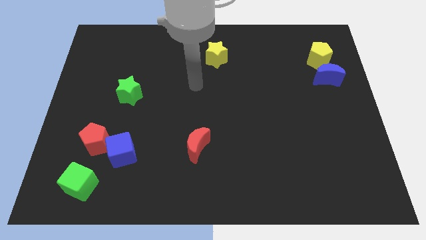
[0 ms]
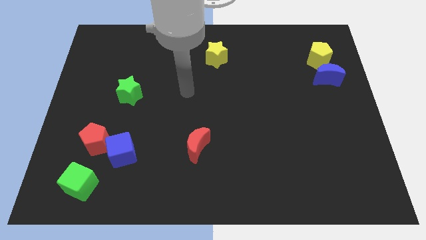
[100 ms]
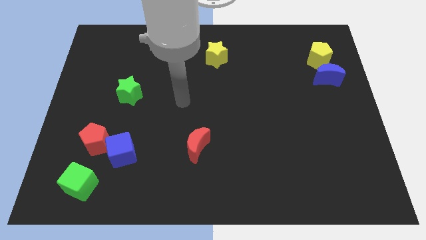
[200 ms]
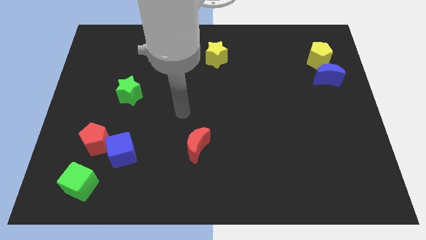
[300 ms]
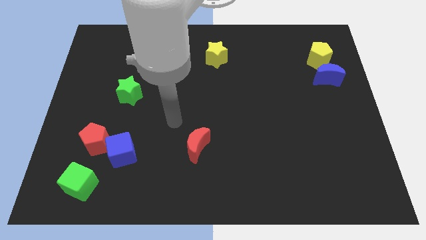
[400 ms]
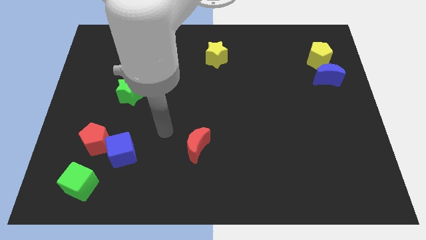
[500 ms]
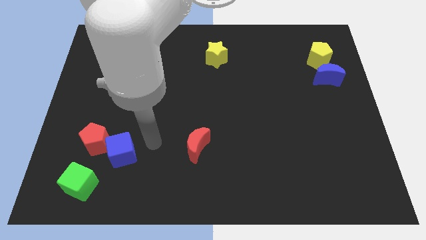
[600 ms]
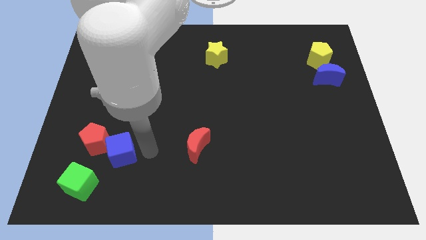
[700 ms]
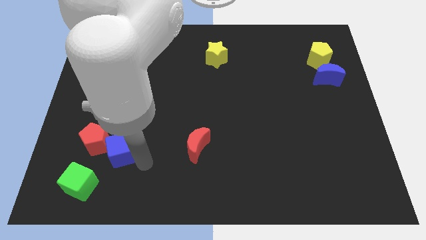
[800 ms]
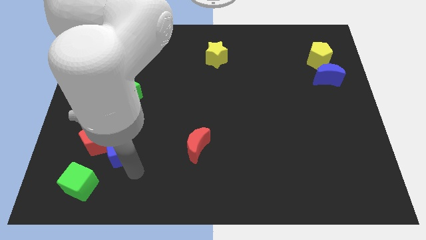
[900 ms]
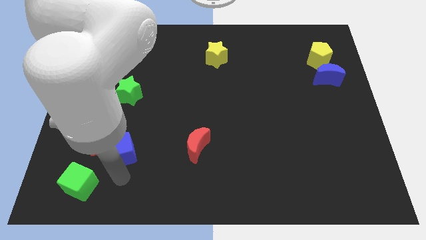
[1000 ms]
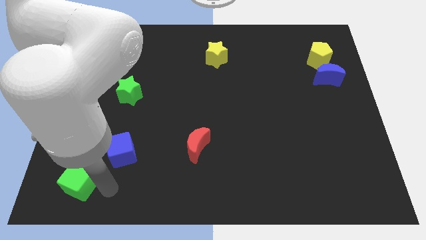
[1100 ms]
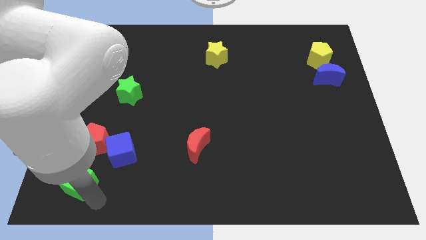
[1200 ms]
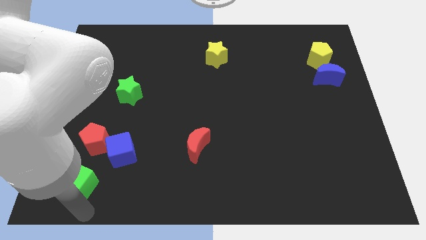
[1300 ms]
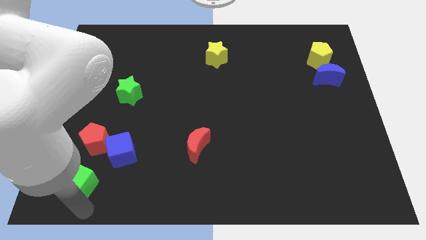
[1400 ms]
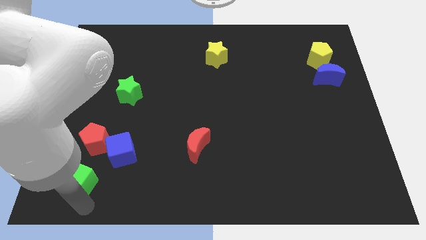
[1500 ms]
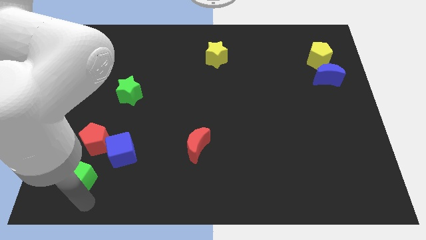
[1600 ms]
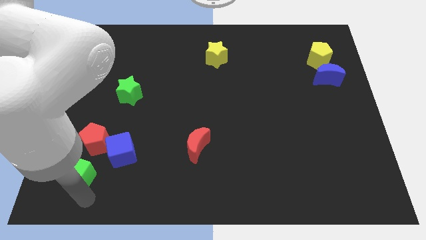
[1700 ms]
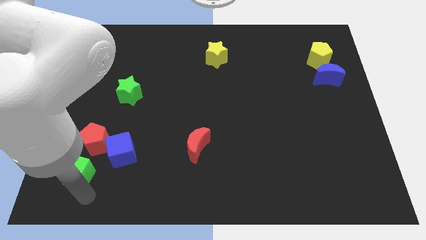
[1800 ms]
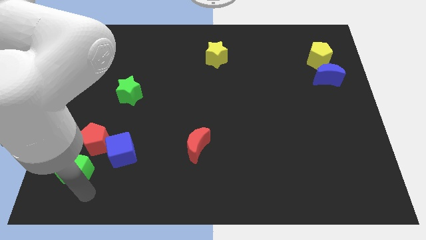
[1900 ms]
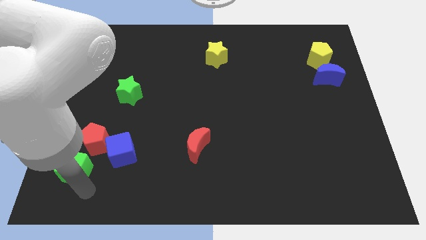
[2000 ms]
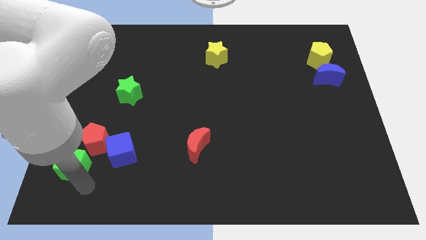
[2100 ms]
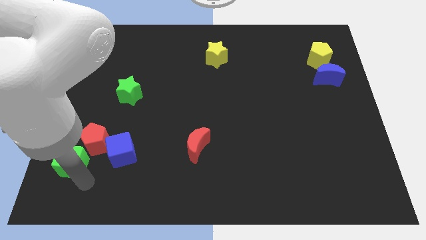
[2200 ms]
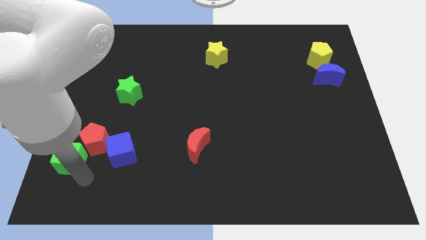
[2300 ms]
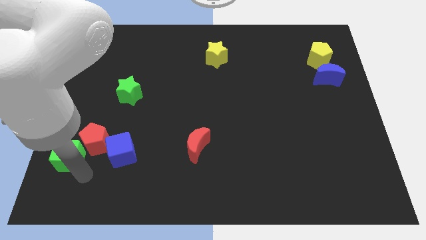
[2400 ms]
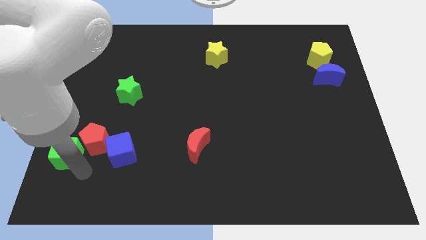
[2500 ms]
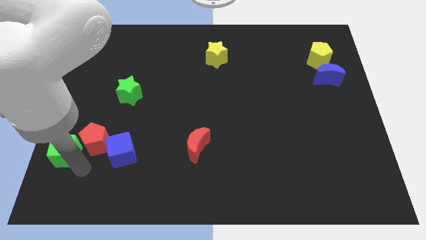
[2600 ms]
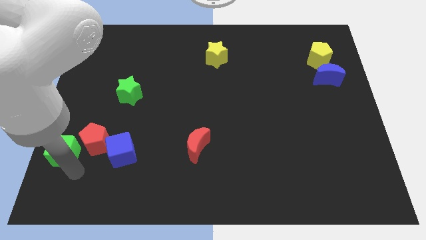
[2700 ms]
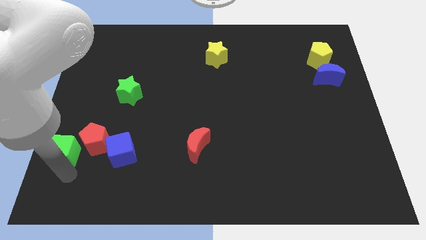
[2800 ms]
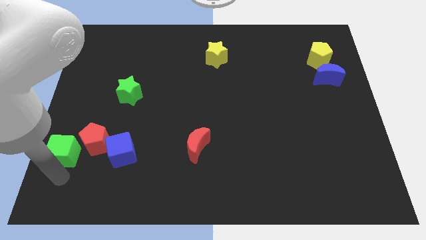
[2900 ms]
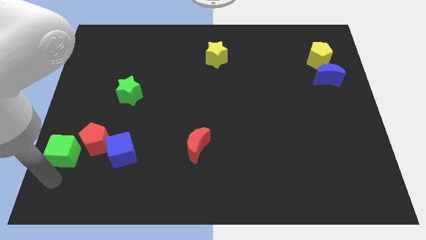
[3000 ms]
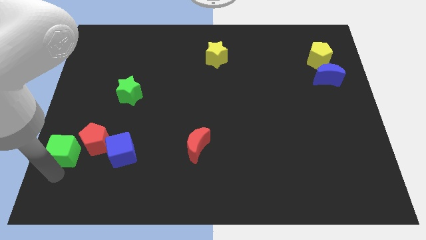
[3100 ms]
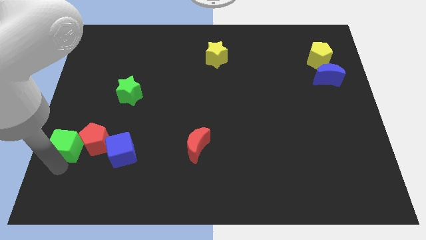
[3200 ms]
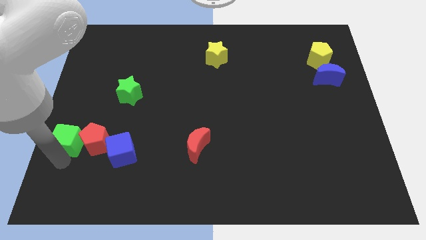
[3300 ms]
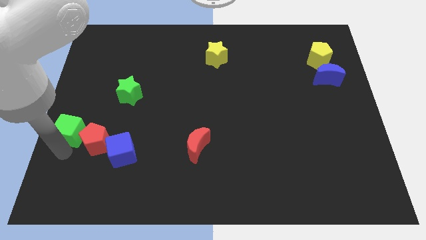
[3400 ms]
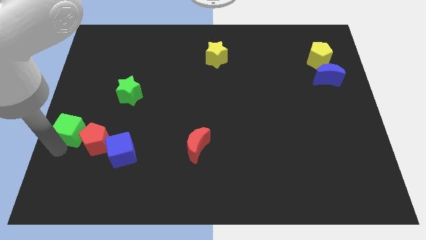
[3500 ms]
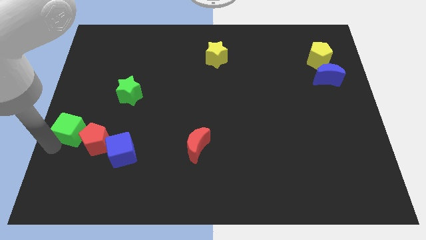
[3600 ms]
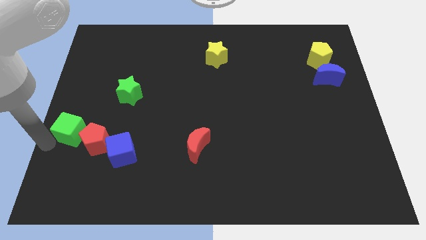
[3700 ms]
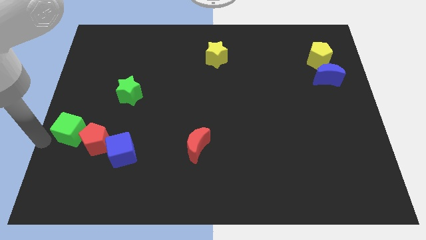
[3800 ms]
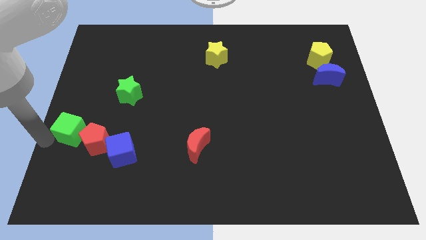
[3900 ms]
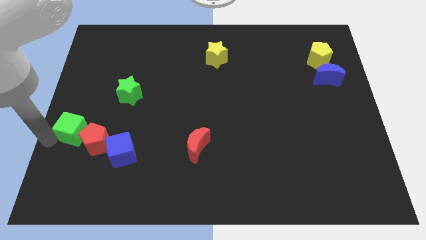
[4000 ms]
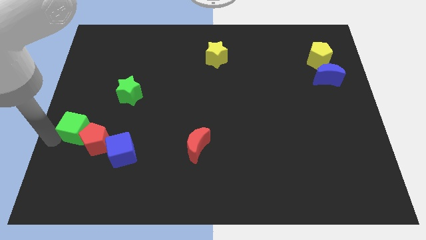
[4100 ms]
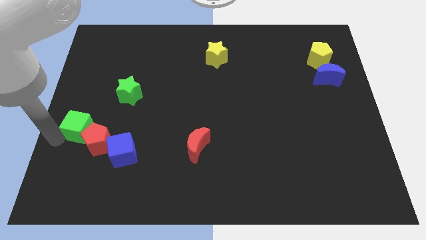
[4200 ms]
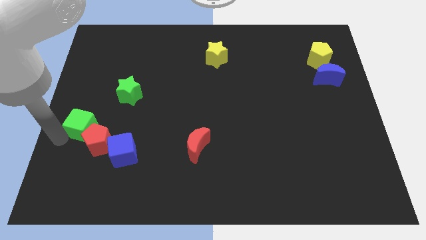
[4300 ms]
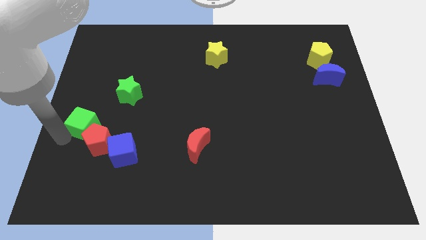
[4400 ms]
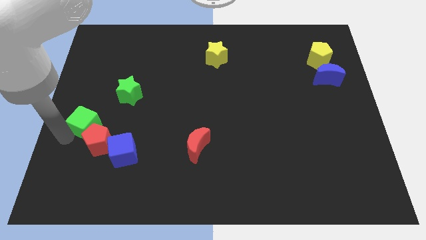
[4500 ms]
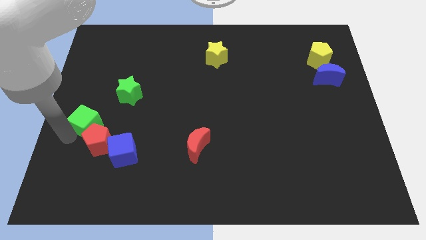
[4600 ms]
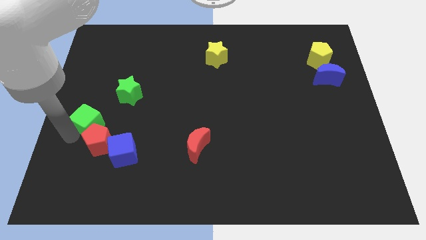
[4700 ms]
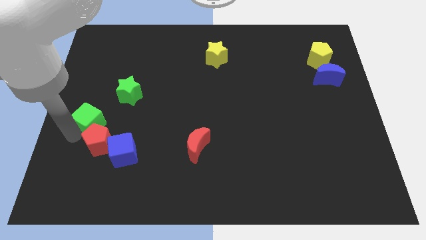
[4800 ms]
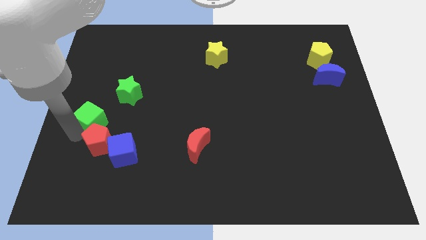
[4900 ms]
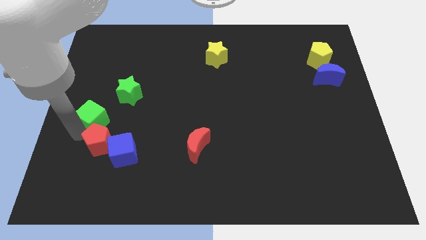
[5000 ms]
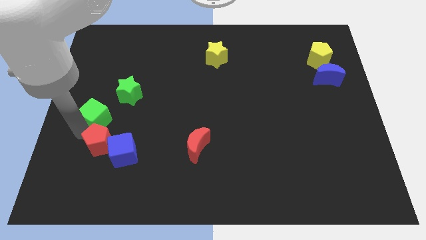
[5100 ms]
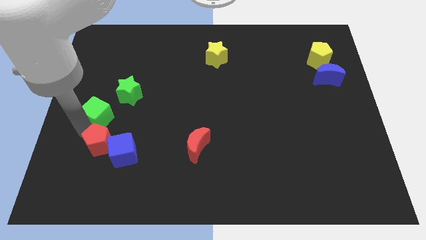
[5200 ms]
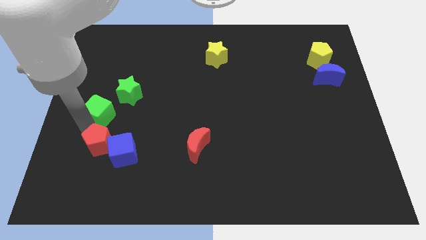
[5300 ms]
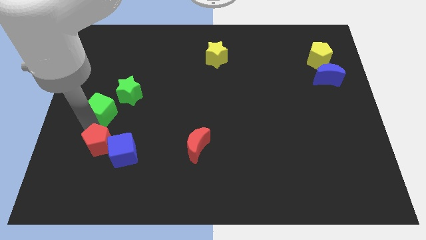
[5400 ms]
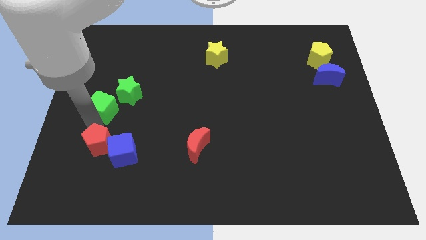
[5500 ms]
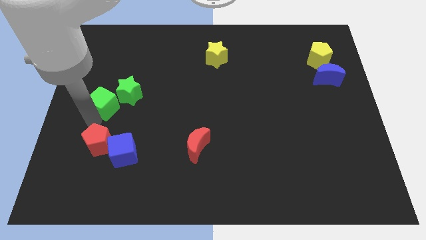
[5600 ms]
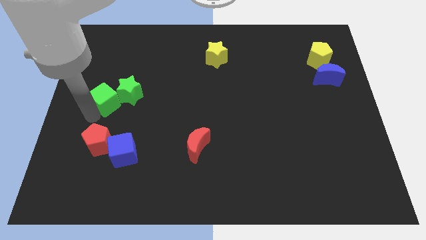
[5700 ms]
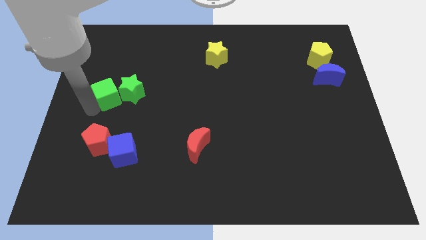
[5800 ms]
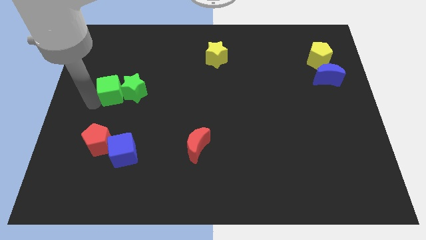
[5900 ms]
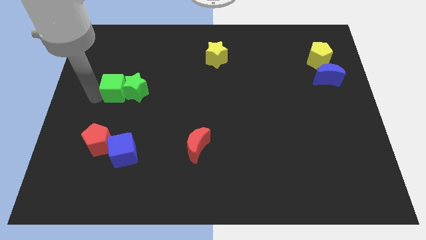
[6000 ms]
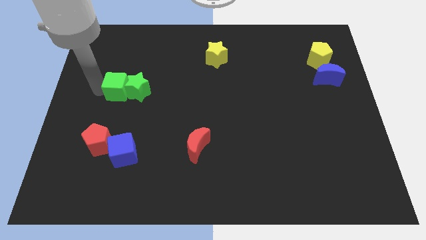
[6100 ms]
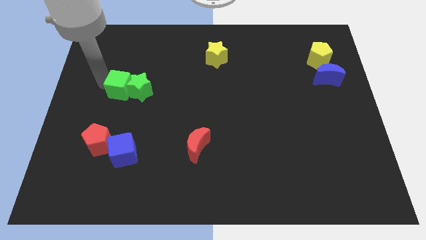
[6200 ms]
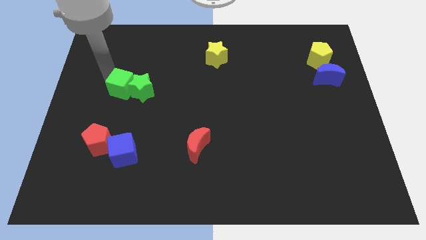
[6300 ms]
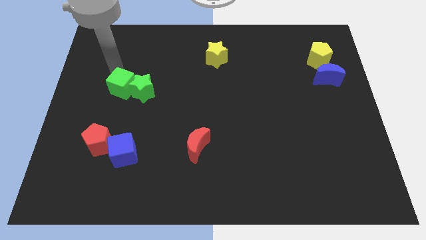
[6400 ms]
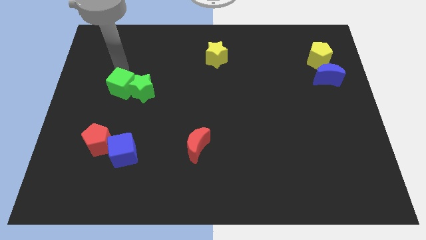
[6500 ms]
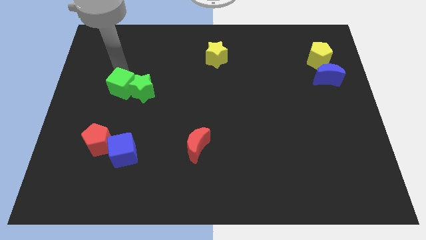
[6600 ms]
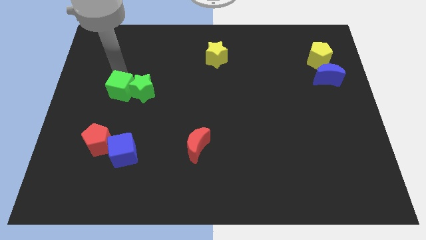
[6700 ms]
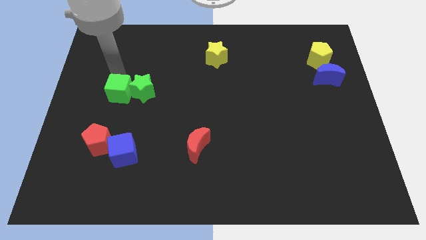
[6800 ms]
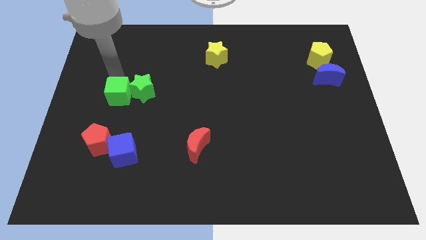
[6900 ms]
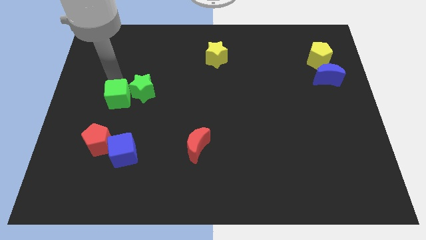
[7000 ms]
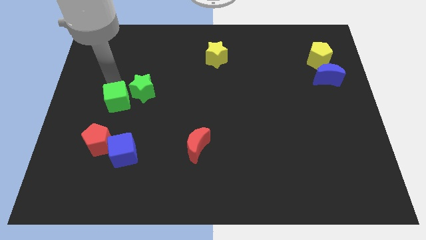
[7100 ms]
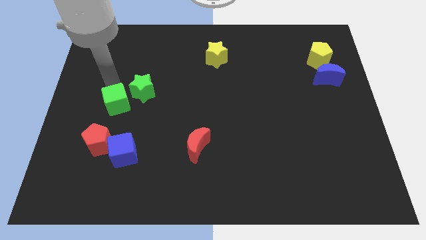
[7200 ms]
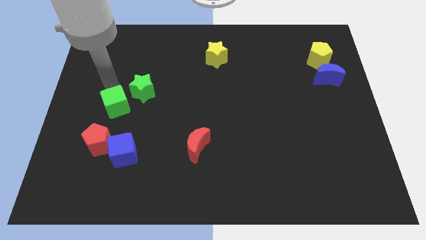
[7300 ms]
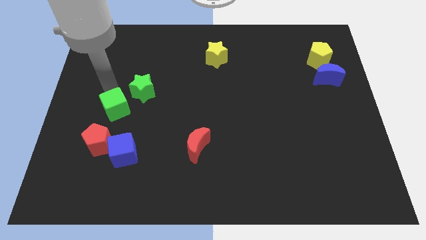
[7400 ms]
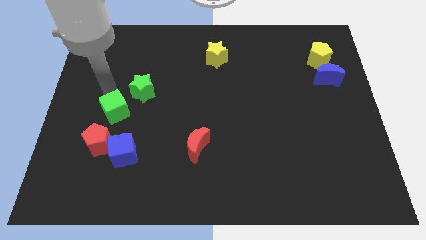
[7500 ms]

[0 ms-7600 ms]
slide the green cube to the top right side of the red pentagon

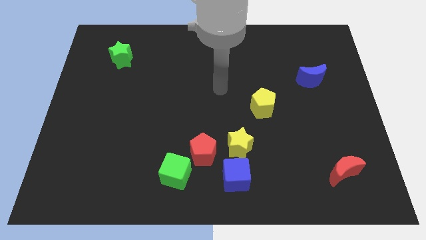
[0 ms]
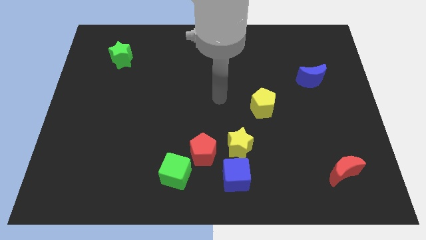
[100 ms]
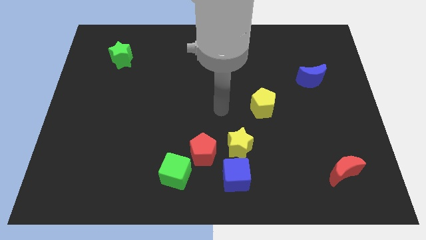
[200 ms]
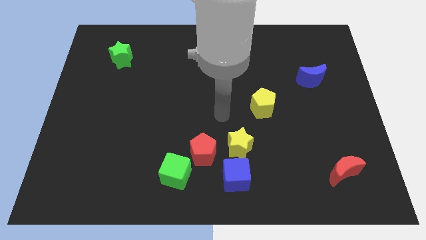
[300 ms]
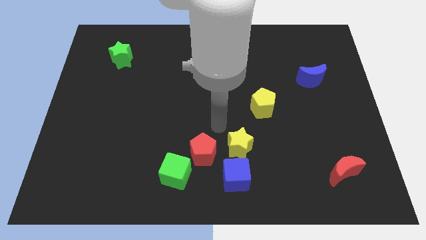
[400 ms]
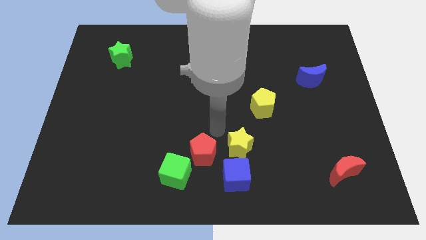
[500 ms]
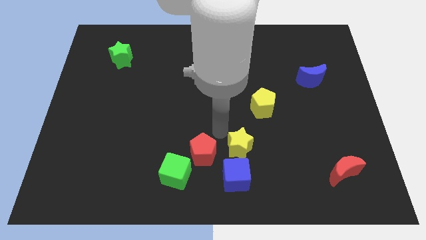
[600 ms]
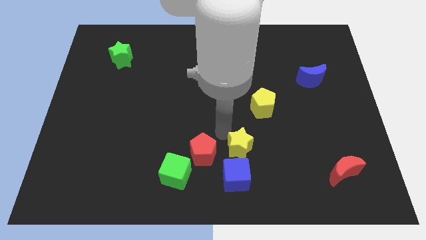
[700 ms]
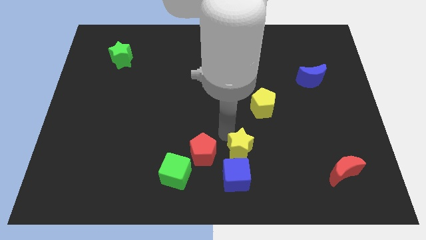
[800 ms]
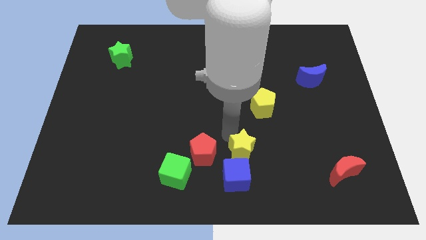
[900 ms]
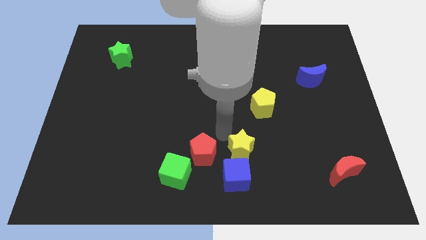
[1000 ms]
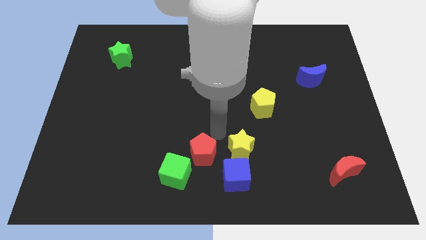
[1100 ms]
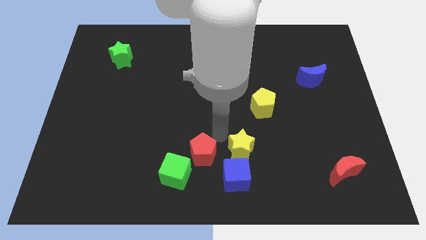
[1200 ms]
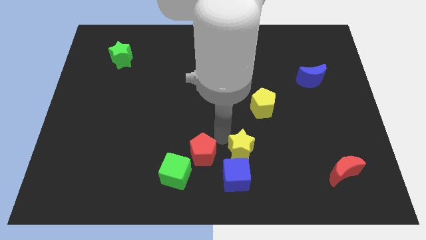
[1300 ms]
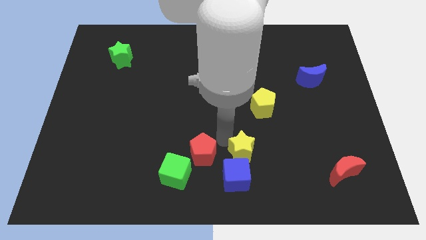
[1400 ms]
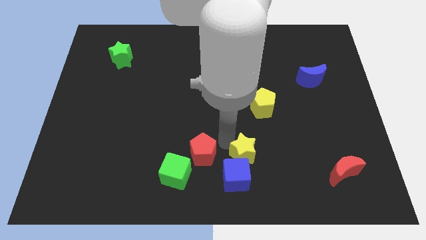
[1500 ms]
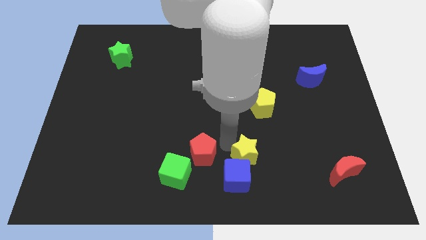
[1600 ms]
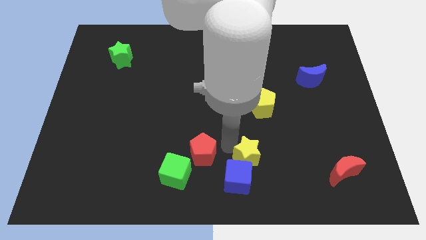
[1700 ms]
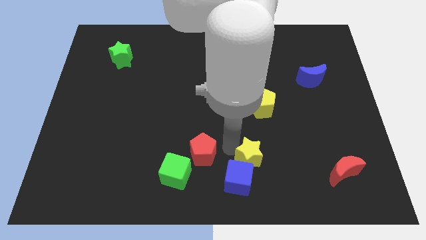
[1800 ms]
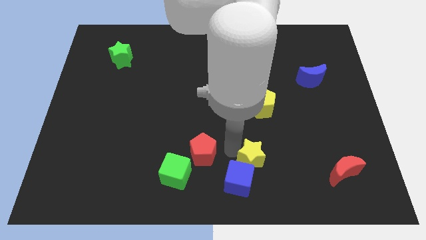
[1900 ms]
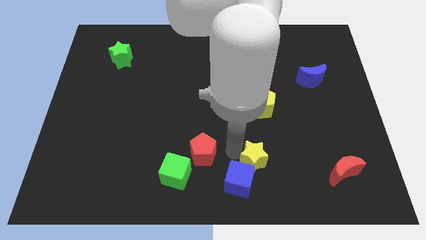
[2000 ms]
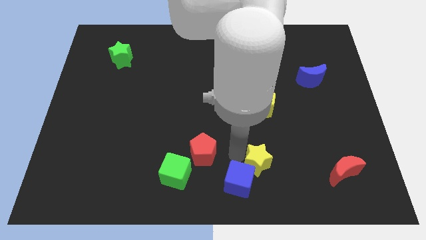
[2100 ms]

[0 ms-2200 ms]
push the yellow star right of the blue cube
